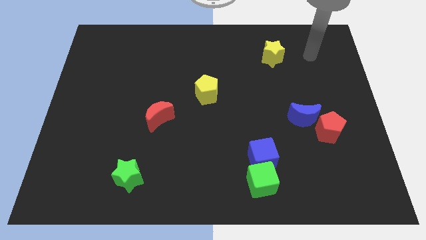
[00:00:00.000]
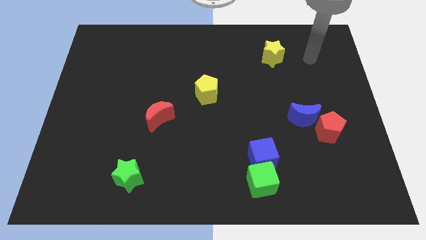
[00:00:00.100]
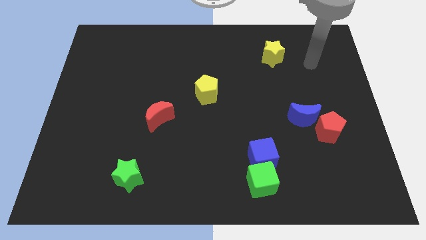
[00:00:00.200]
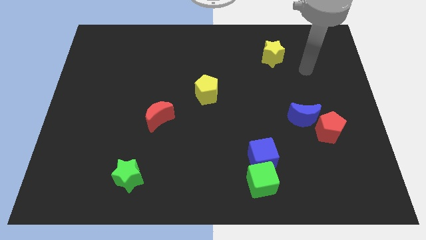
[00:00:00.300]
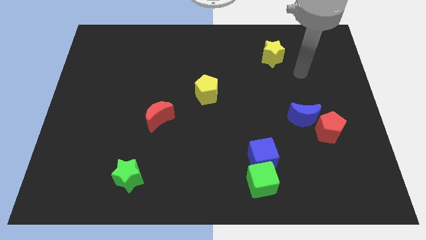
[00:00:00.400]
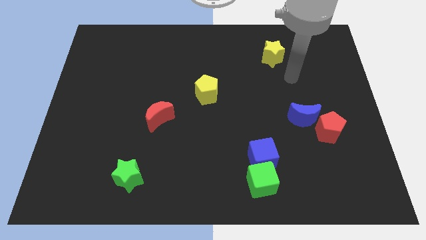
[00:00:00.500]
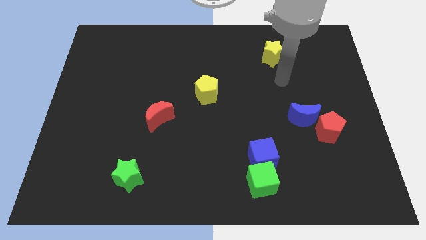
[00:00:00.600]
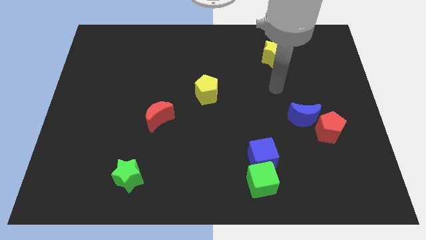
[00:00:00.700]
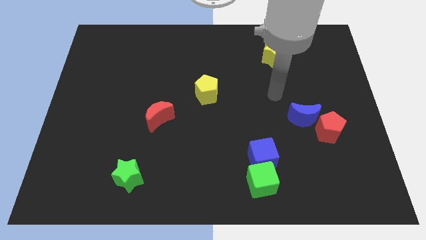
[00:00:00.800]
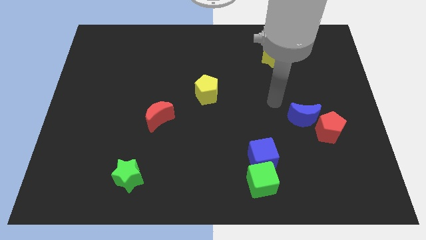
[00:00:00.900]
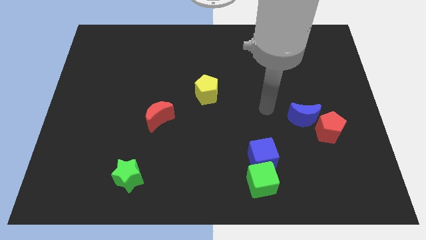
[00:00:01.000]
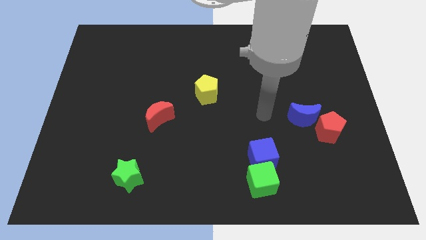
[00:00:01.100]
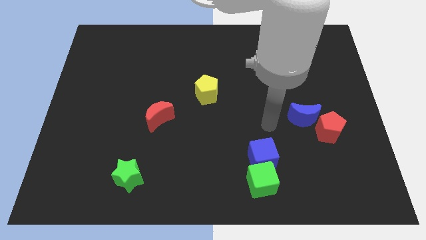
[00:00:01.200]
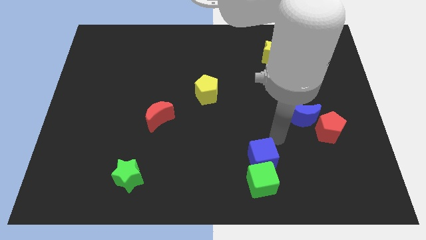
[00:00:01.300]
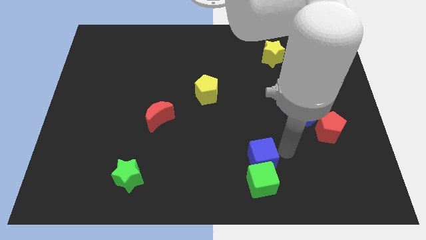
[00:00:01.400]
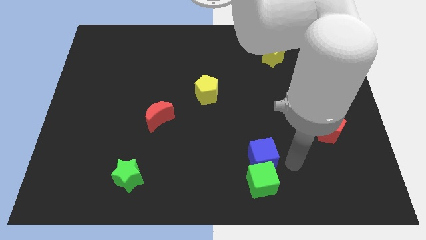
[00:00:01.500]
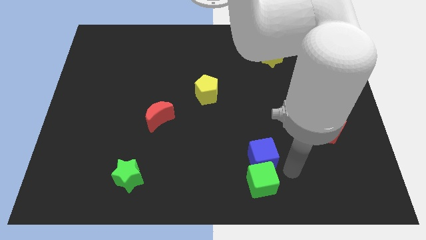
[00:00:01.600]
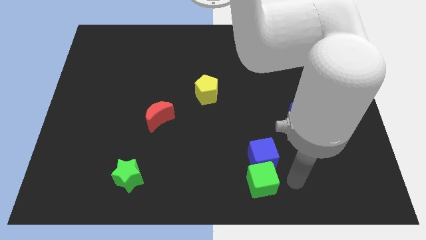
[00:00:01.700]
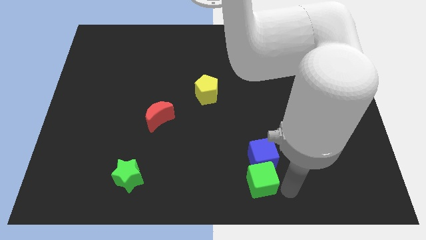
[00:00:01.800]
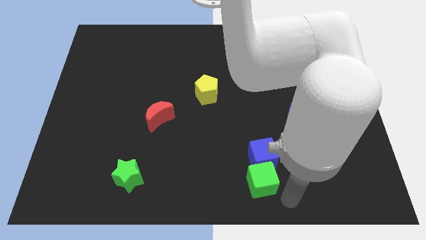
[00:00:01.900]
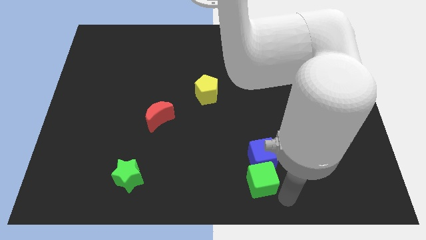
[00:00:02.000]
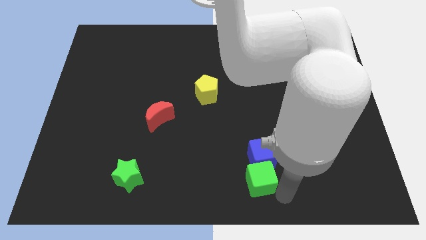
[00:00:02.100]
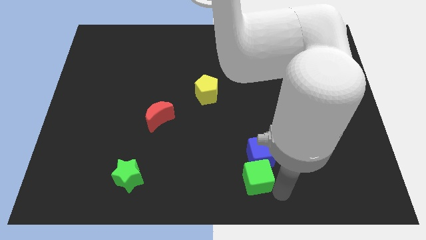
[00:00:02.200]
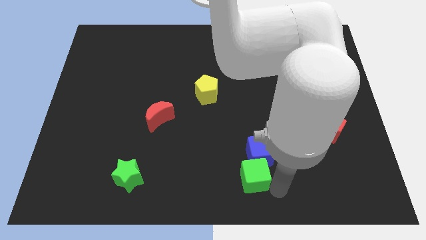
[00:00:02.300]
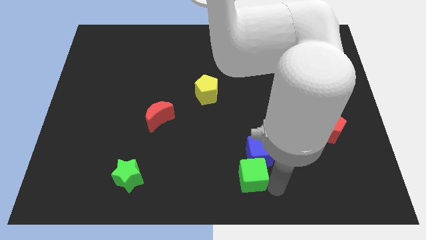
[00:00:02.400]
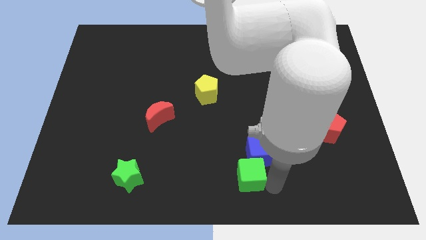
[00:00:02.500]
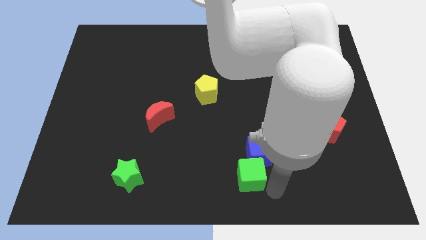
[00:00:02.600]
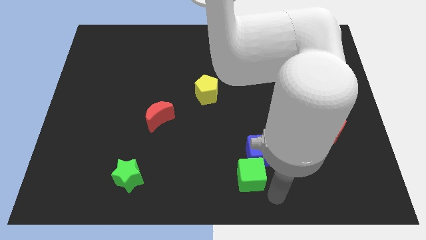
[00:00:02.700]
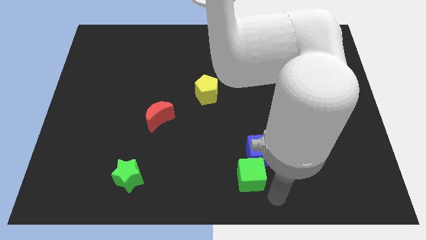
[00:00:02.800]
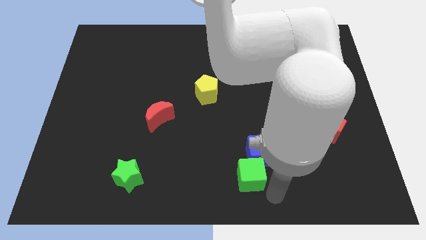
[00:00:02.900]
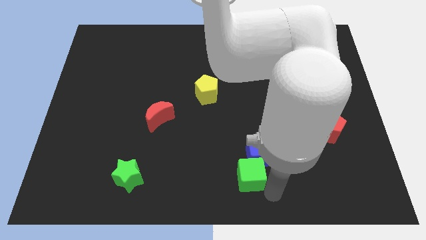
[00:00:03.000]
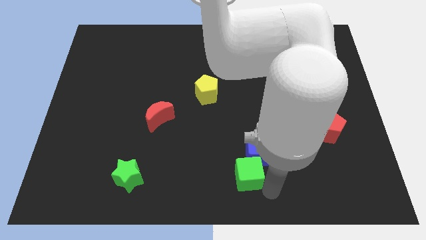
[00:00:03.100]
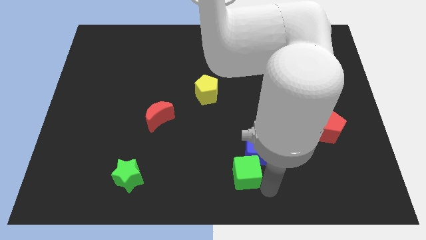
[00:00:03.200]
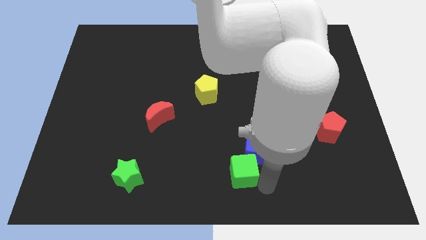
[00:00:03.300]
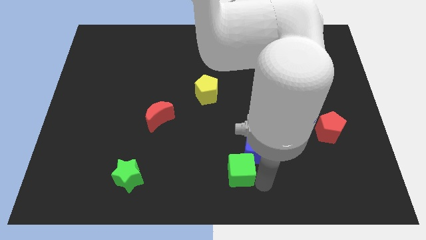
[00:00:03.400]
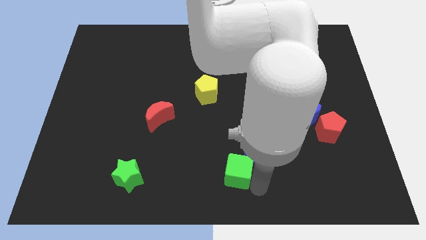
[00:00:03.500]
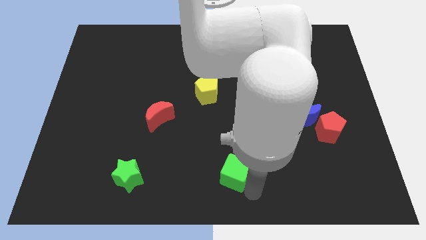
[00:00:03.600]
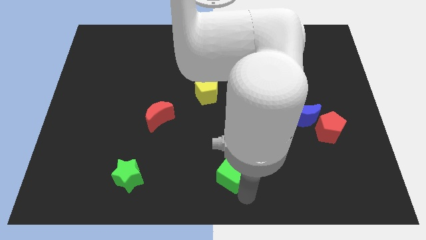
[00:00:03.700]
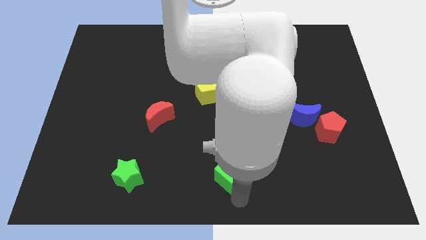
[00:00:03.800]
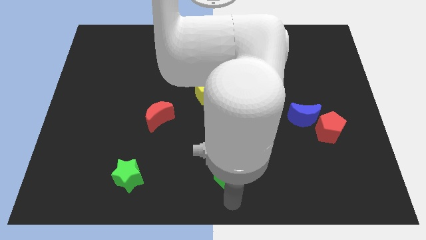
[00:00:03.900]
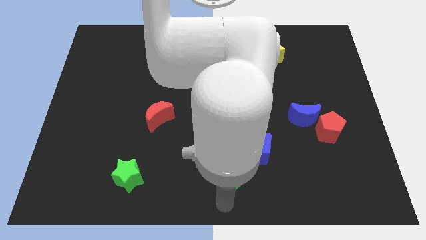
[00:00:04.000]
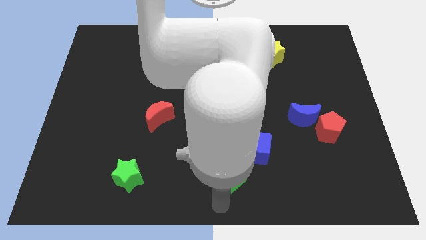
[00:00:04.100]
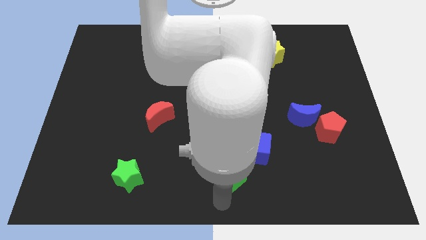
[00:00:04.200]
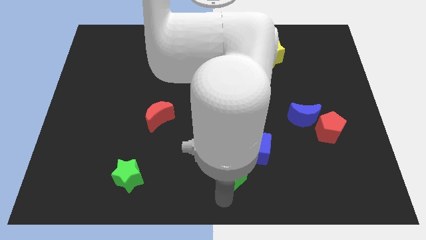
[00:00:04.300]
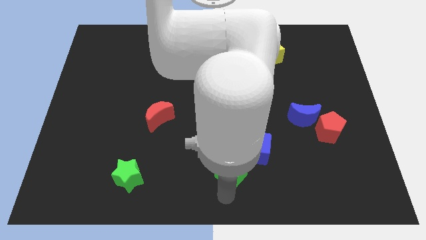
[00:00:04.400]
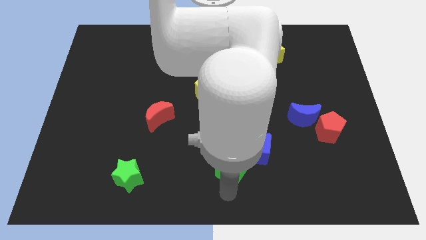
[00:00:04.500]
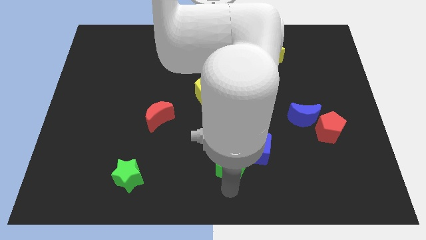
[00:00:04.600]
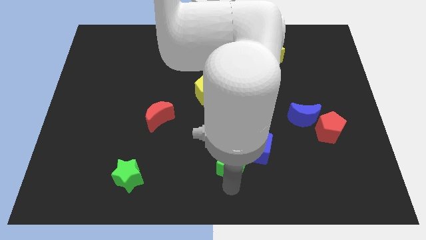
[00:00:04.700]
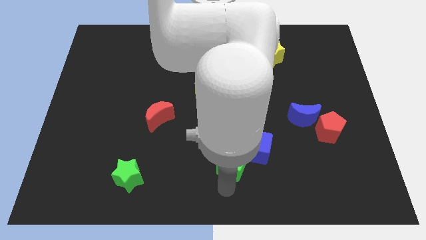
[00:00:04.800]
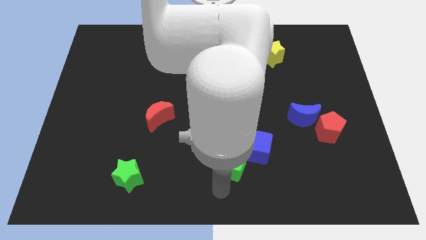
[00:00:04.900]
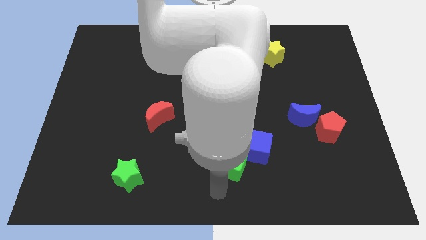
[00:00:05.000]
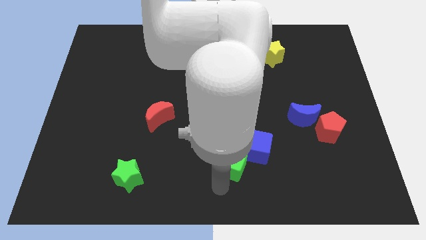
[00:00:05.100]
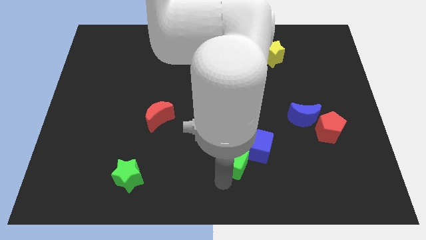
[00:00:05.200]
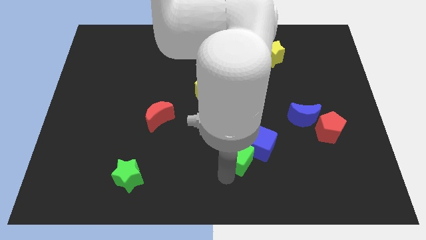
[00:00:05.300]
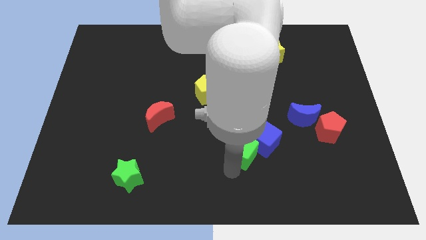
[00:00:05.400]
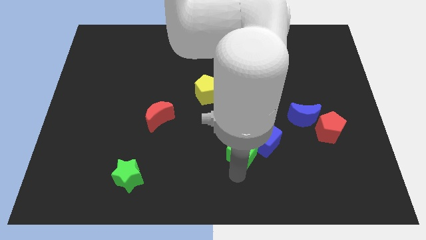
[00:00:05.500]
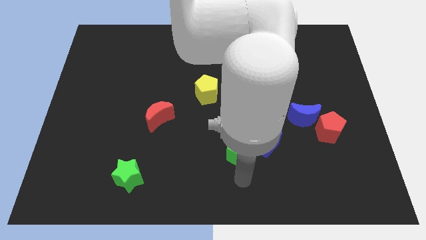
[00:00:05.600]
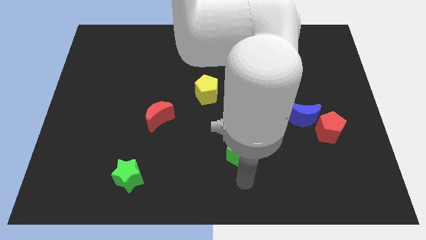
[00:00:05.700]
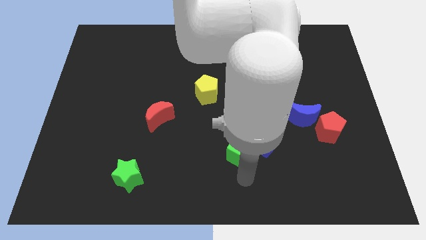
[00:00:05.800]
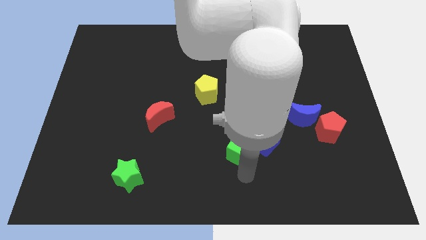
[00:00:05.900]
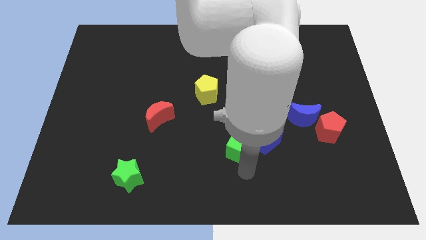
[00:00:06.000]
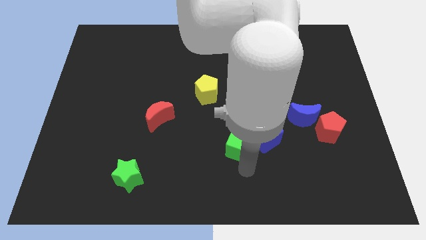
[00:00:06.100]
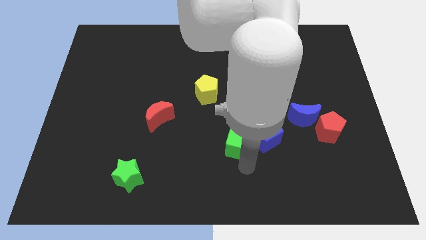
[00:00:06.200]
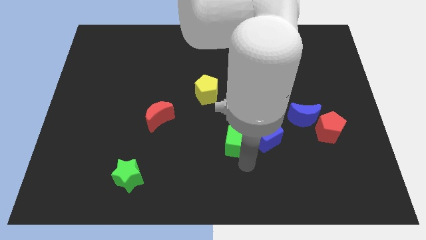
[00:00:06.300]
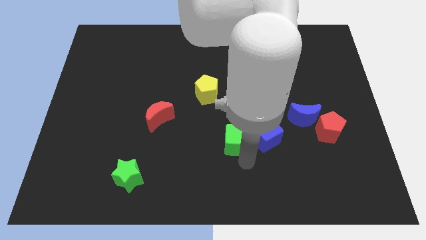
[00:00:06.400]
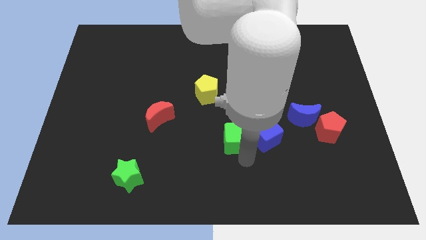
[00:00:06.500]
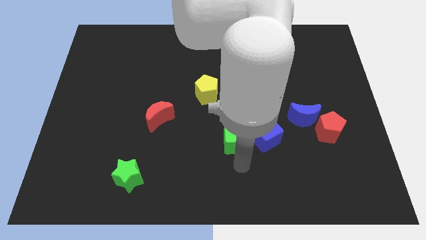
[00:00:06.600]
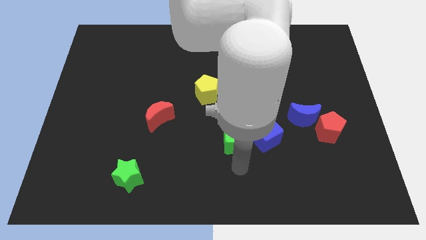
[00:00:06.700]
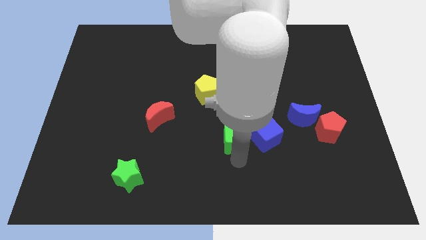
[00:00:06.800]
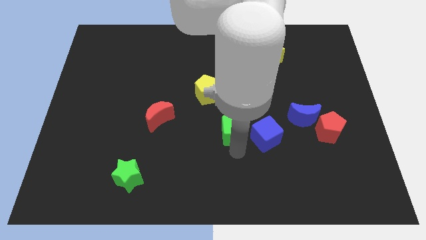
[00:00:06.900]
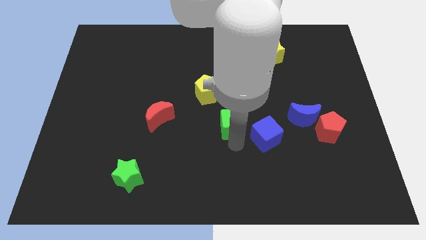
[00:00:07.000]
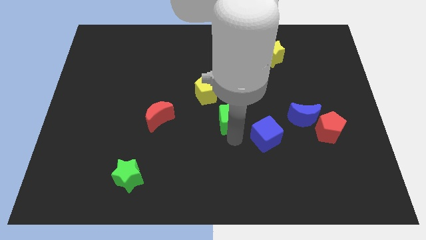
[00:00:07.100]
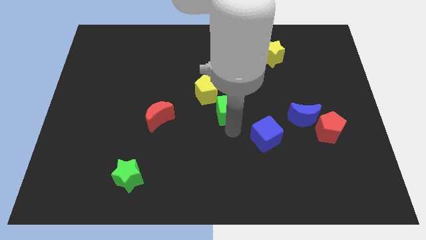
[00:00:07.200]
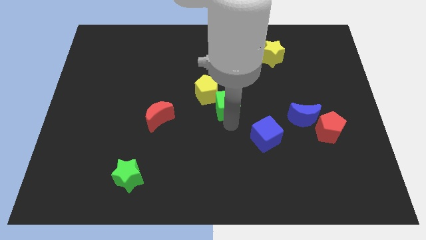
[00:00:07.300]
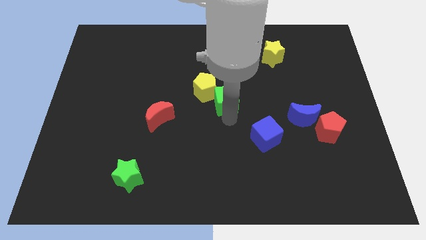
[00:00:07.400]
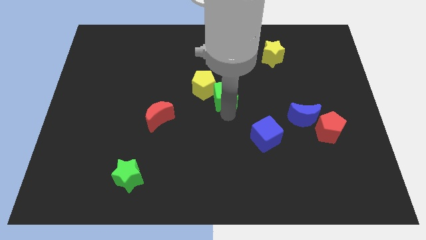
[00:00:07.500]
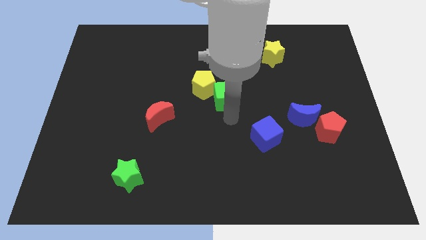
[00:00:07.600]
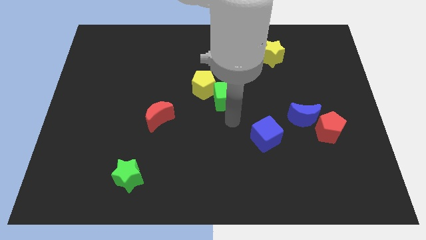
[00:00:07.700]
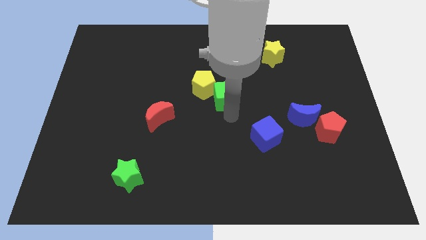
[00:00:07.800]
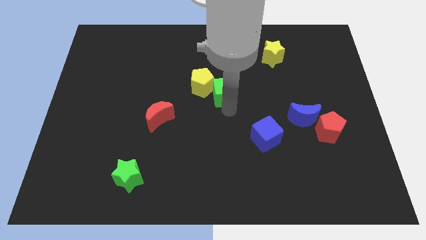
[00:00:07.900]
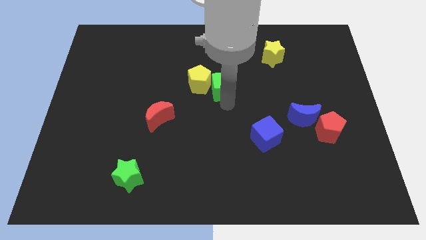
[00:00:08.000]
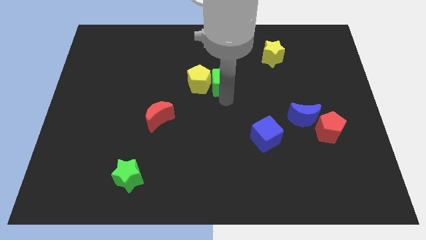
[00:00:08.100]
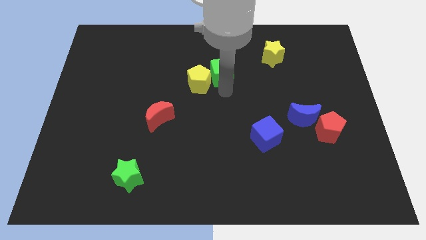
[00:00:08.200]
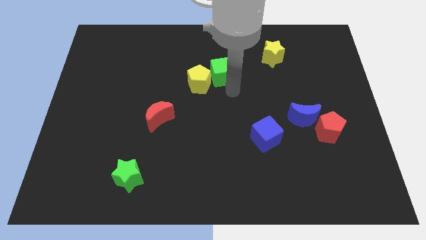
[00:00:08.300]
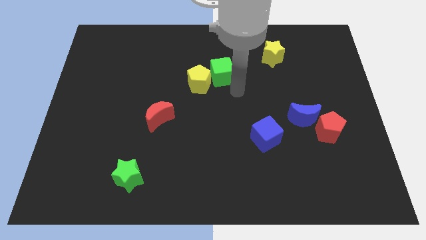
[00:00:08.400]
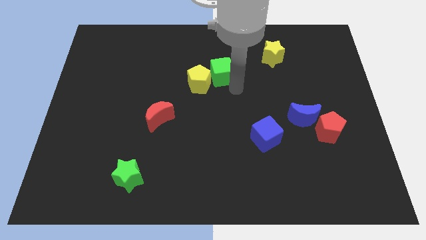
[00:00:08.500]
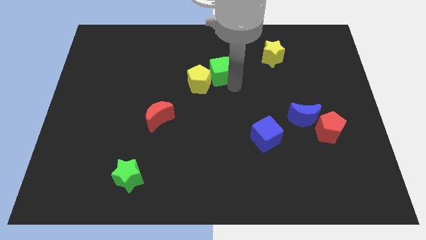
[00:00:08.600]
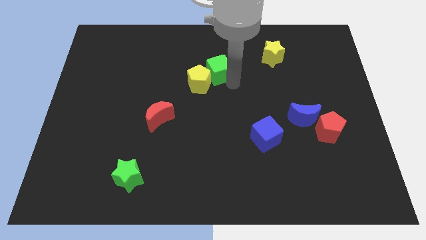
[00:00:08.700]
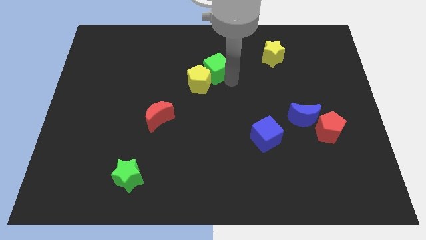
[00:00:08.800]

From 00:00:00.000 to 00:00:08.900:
slide the green cube to the top side of the yellow pentagon
